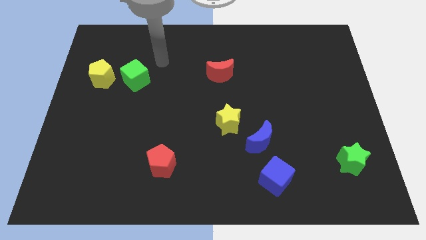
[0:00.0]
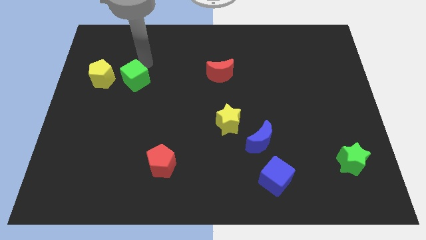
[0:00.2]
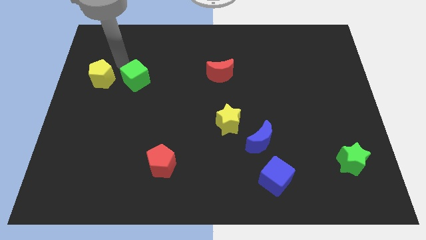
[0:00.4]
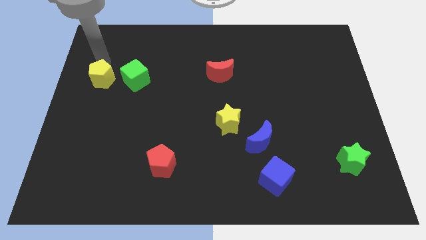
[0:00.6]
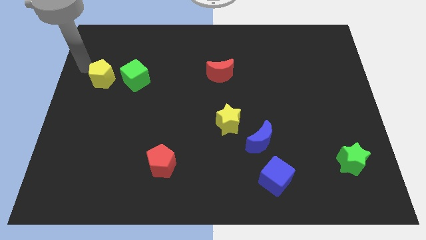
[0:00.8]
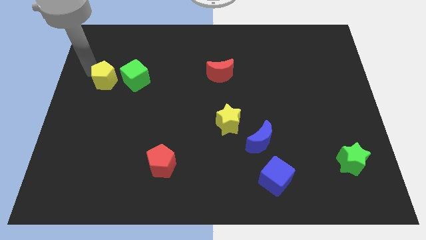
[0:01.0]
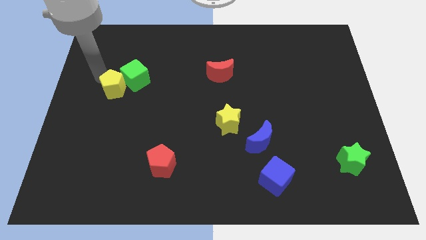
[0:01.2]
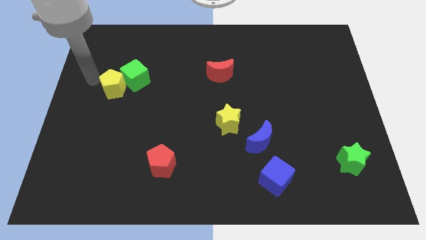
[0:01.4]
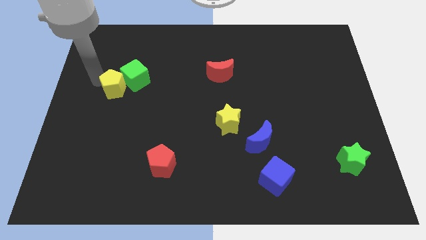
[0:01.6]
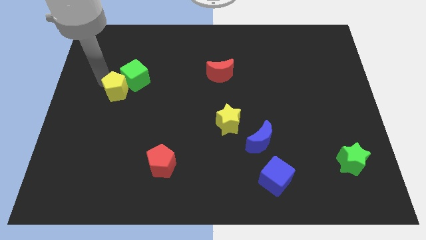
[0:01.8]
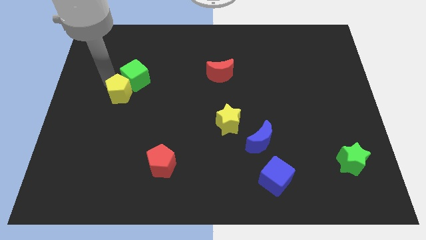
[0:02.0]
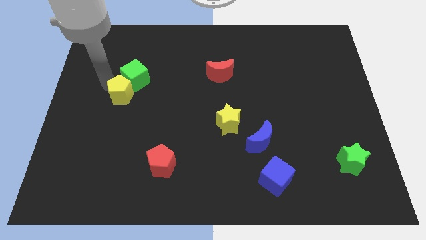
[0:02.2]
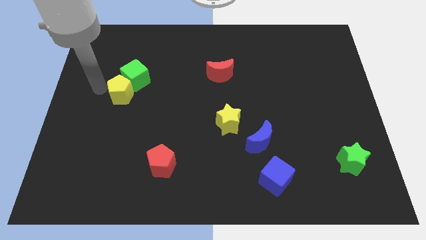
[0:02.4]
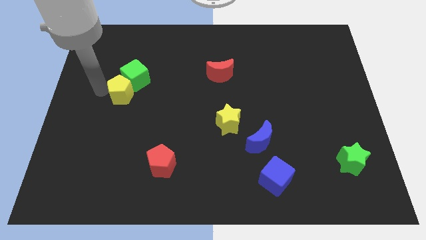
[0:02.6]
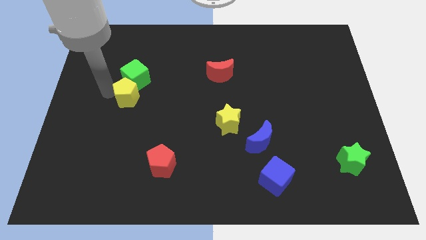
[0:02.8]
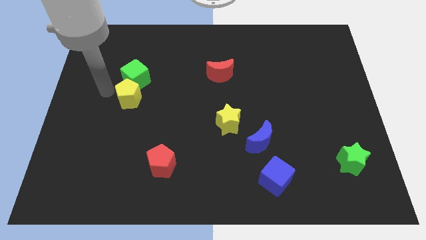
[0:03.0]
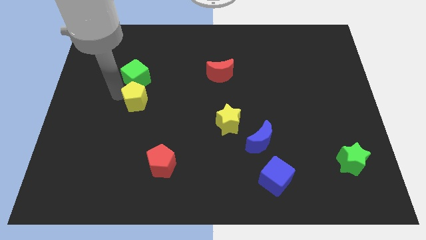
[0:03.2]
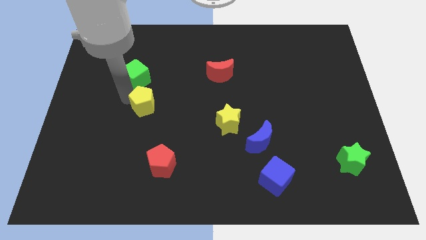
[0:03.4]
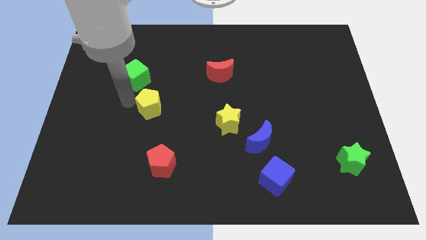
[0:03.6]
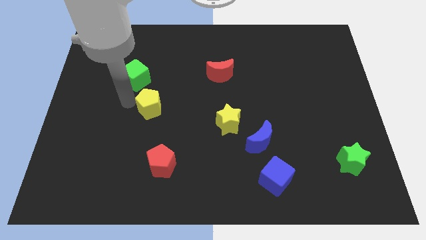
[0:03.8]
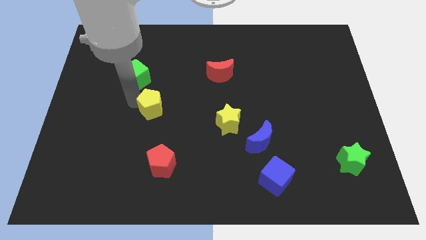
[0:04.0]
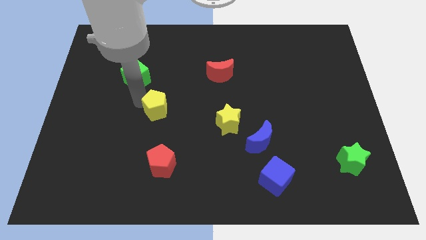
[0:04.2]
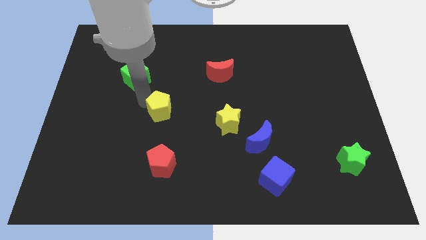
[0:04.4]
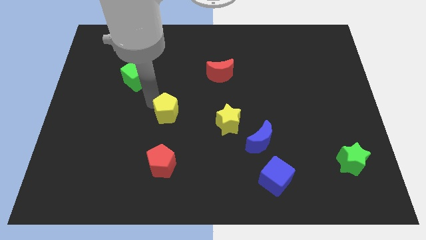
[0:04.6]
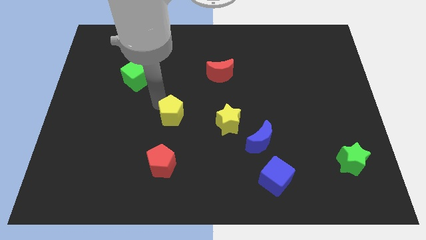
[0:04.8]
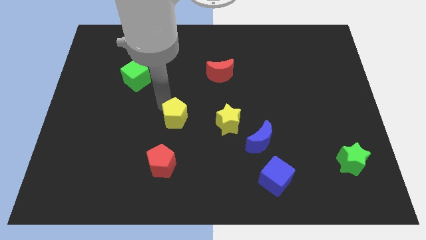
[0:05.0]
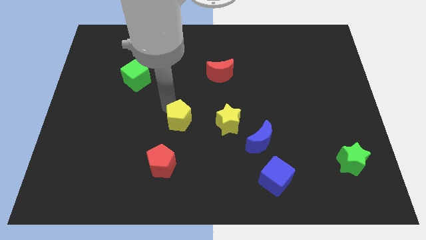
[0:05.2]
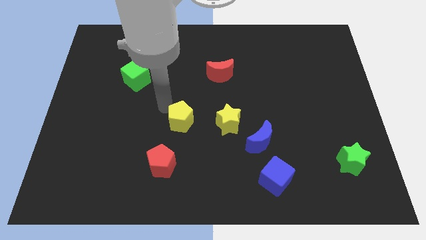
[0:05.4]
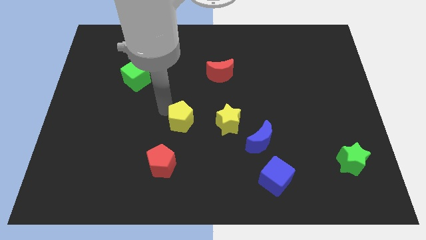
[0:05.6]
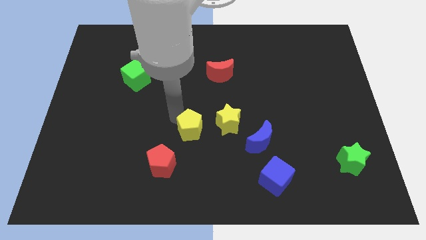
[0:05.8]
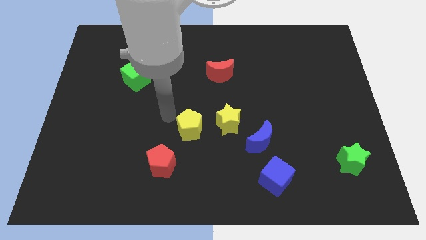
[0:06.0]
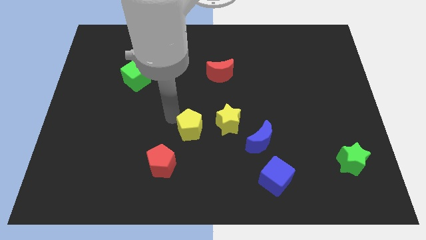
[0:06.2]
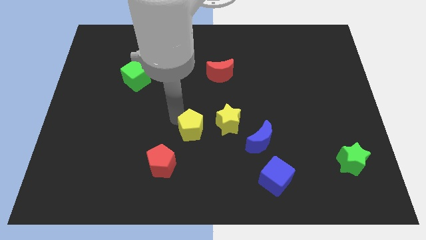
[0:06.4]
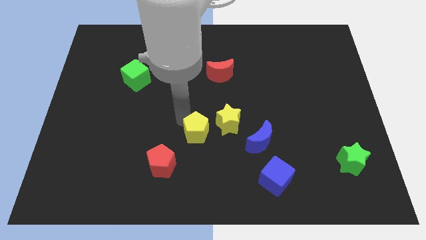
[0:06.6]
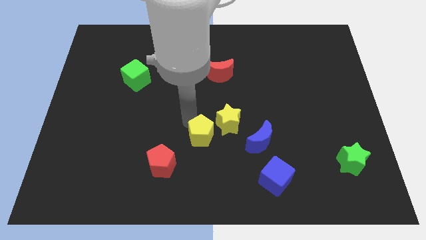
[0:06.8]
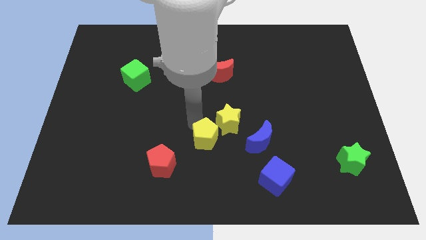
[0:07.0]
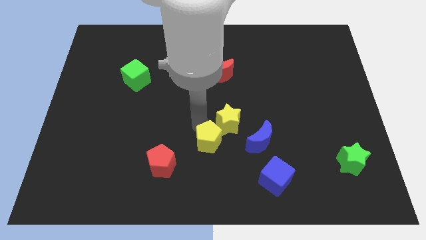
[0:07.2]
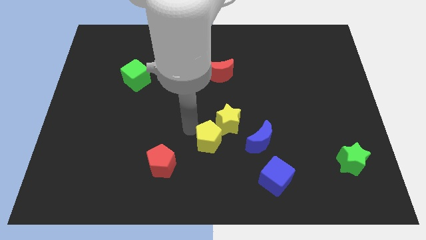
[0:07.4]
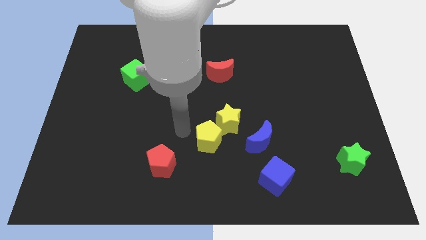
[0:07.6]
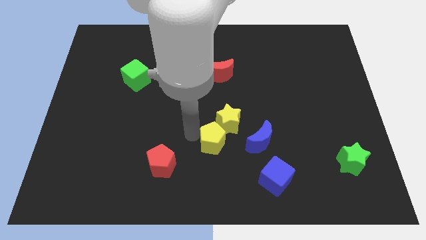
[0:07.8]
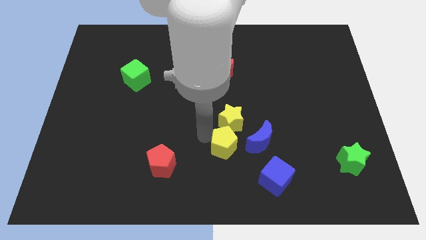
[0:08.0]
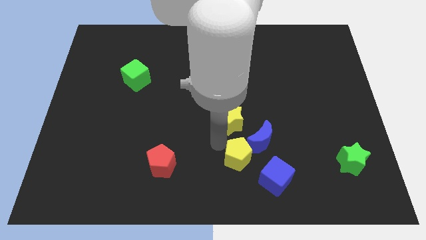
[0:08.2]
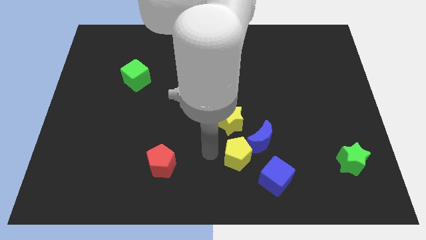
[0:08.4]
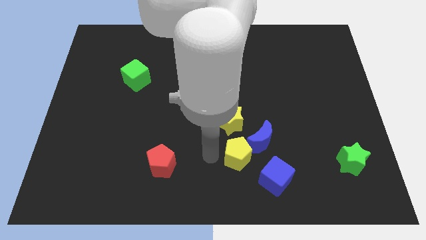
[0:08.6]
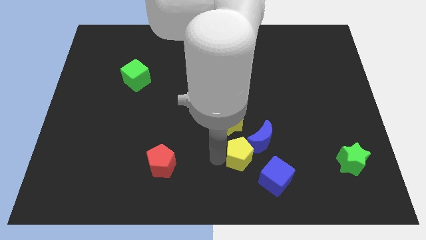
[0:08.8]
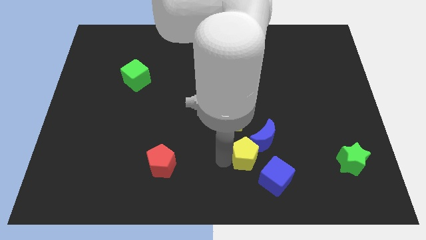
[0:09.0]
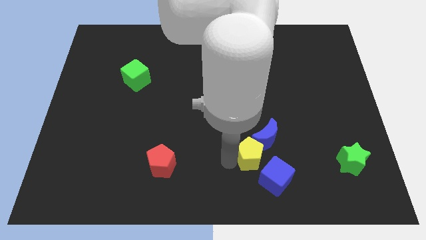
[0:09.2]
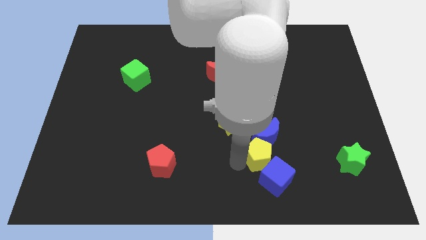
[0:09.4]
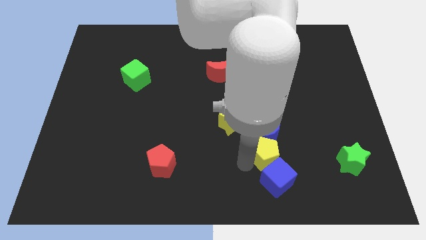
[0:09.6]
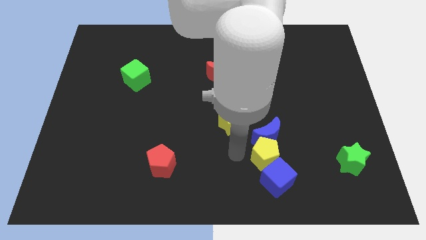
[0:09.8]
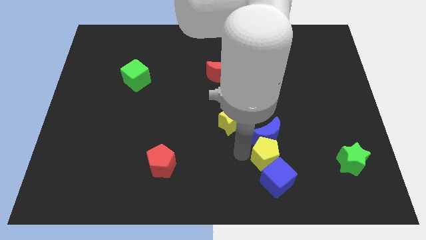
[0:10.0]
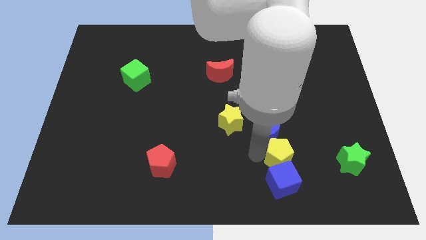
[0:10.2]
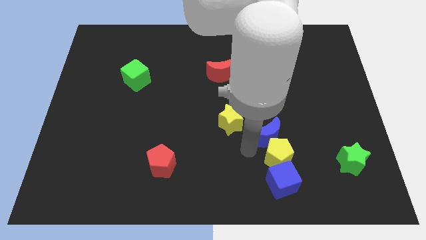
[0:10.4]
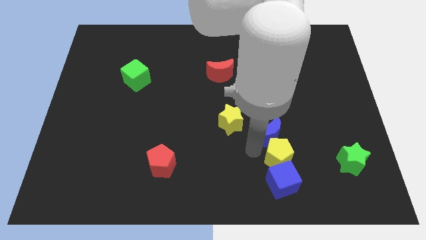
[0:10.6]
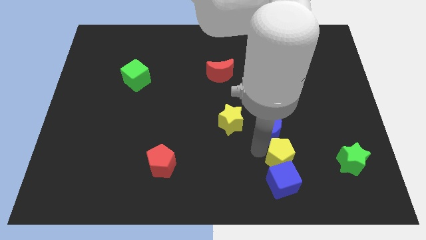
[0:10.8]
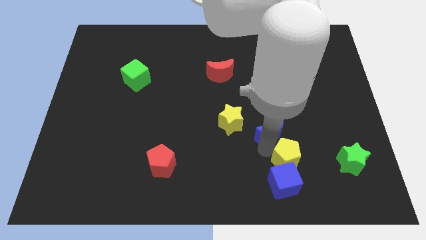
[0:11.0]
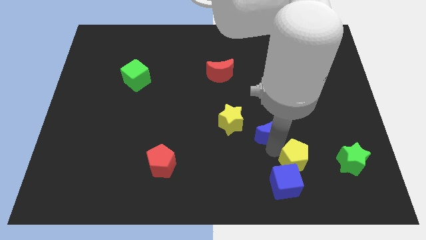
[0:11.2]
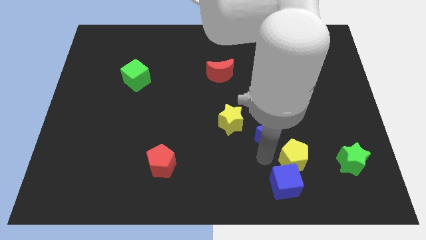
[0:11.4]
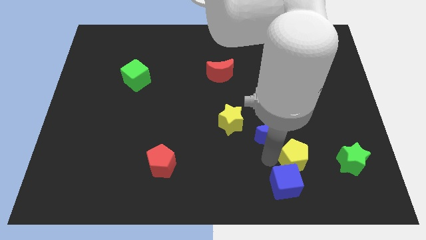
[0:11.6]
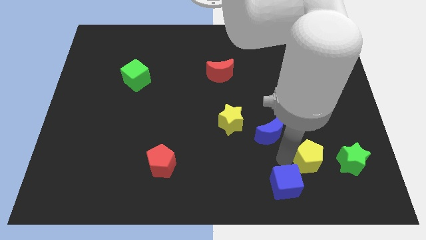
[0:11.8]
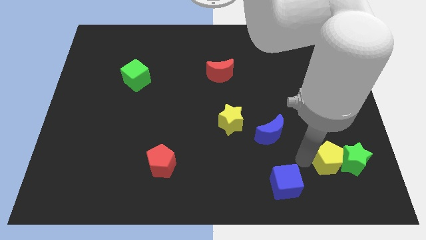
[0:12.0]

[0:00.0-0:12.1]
put the yellow pentagon next to the green star

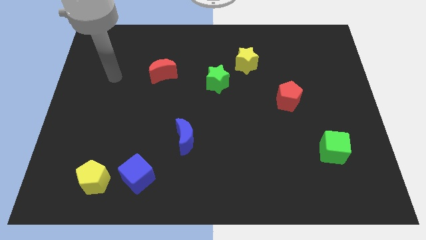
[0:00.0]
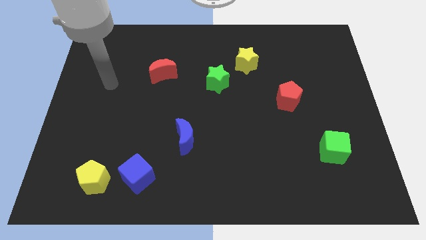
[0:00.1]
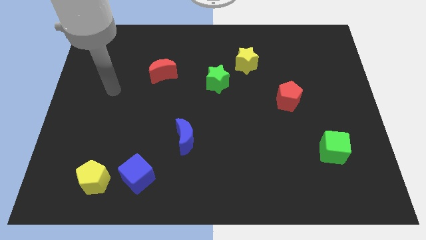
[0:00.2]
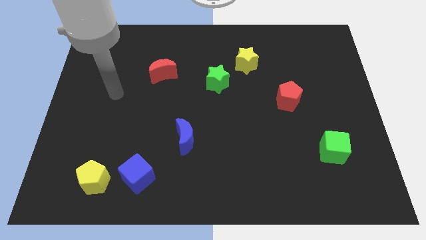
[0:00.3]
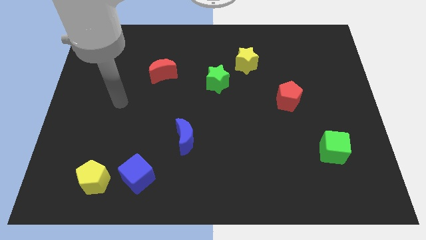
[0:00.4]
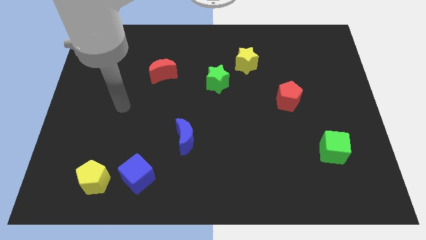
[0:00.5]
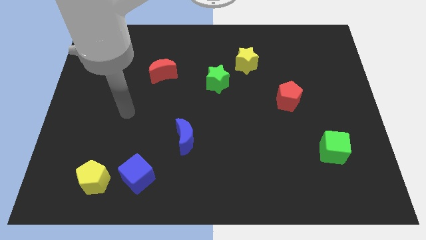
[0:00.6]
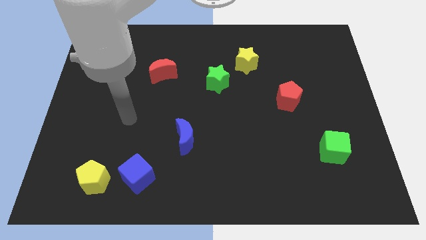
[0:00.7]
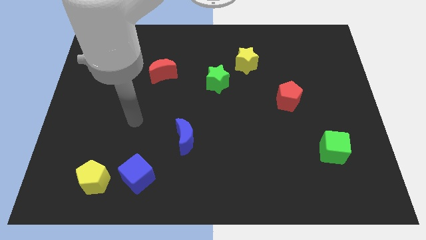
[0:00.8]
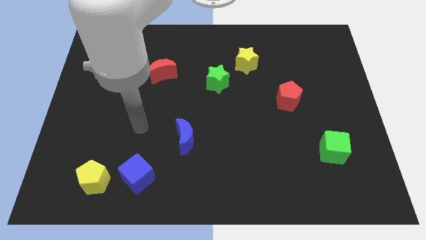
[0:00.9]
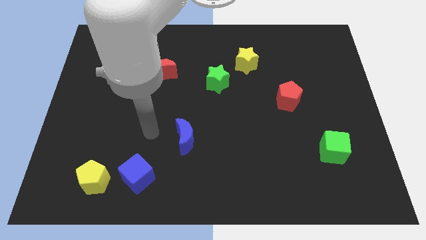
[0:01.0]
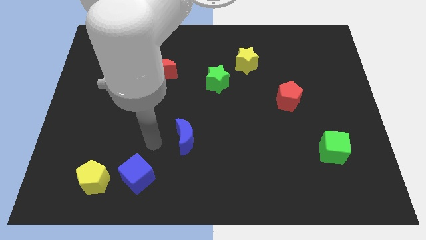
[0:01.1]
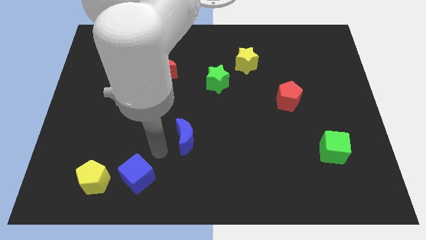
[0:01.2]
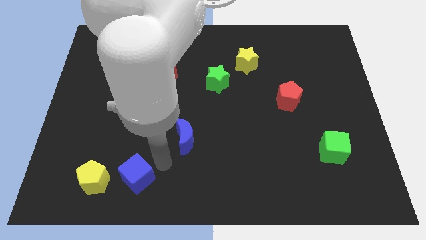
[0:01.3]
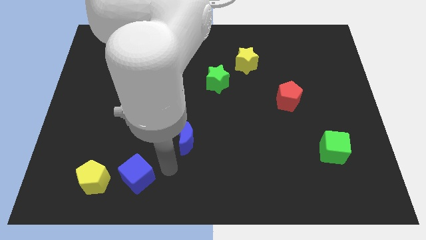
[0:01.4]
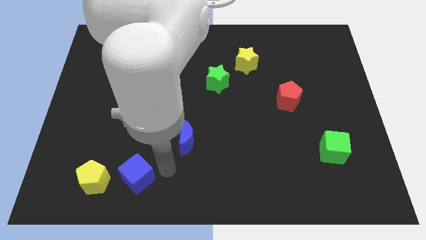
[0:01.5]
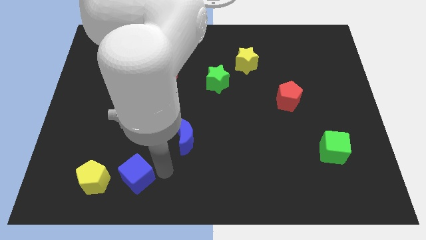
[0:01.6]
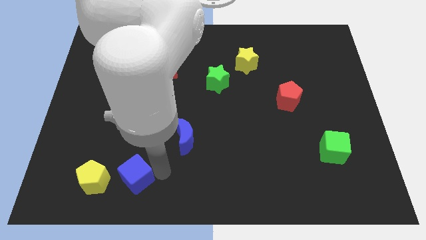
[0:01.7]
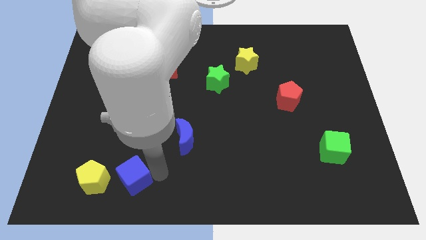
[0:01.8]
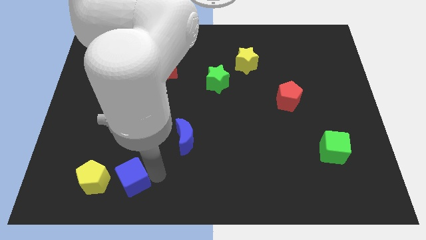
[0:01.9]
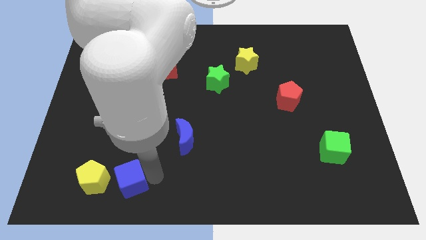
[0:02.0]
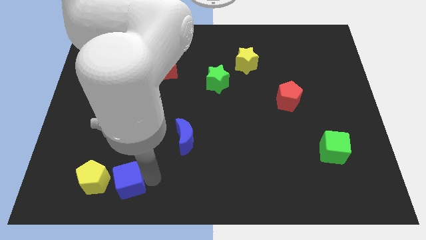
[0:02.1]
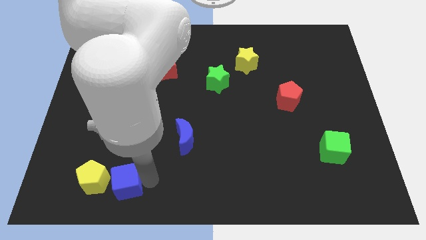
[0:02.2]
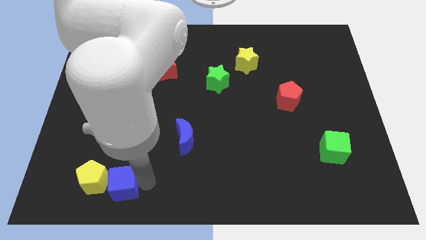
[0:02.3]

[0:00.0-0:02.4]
push the blue cube towards the yellow pentagon
